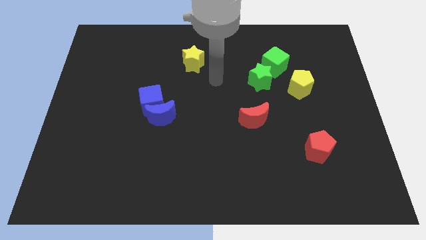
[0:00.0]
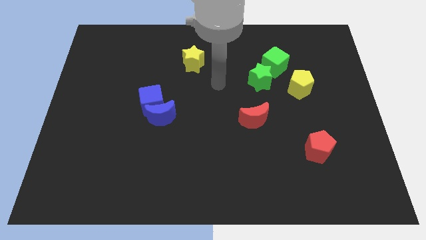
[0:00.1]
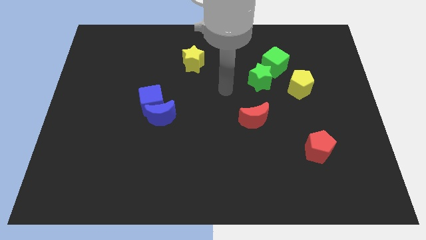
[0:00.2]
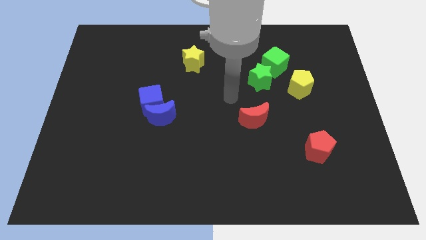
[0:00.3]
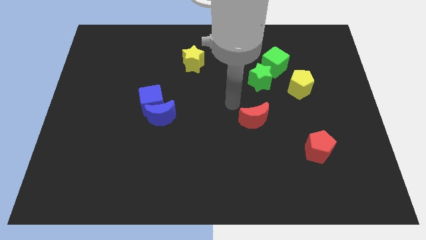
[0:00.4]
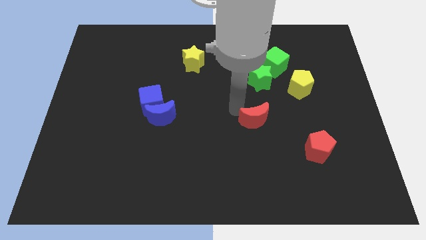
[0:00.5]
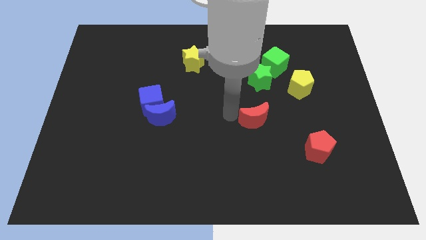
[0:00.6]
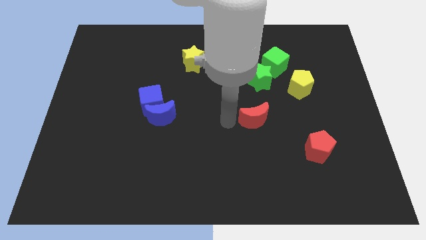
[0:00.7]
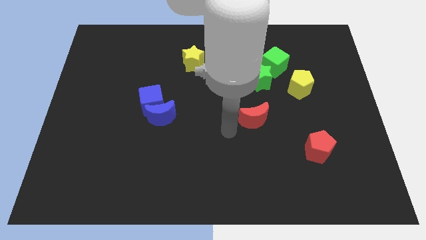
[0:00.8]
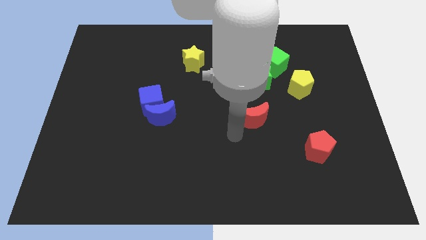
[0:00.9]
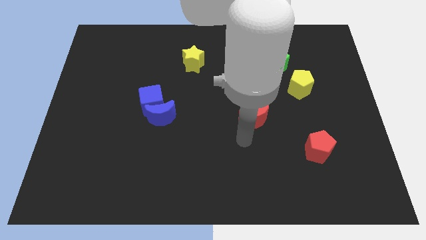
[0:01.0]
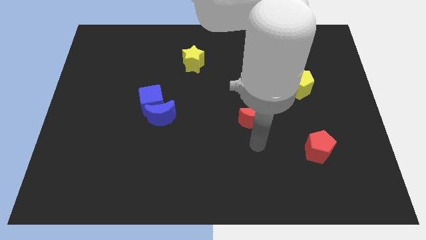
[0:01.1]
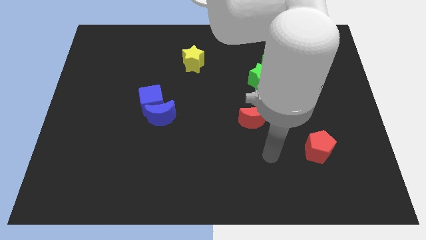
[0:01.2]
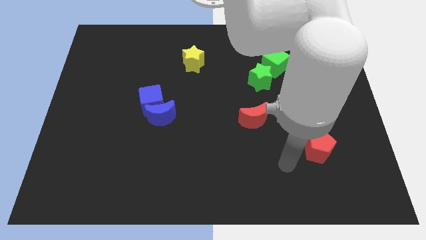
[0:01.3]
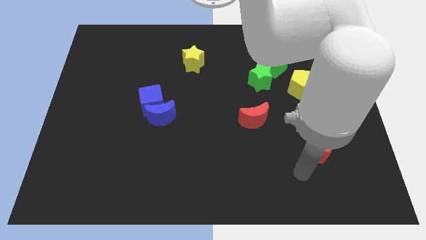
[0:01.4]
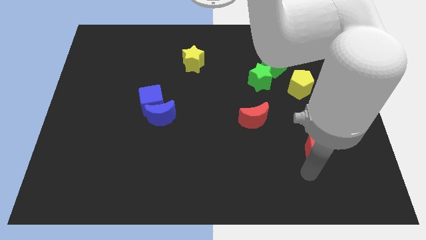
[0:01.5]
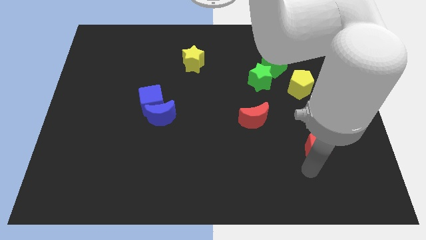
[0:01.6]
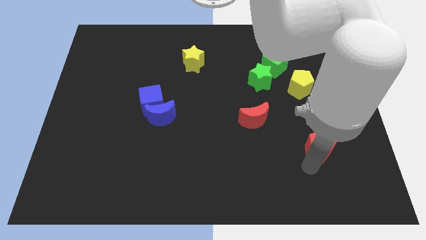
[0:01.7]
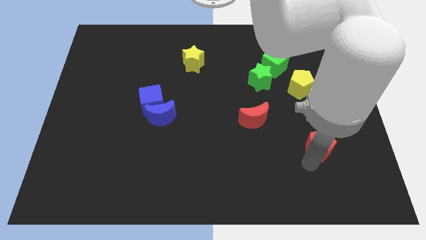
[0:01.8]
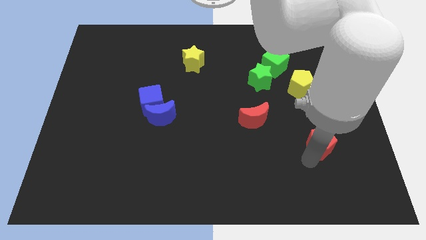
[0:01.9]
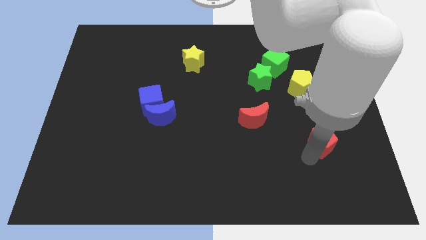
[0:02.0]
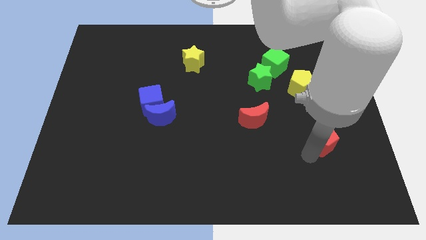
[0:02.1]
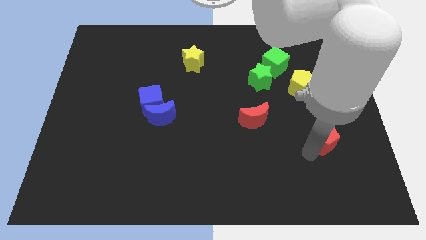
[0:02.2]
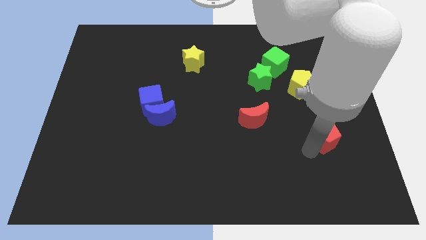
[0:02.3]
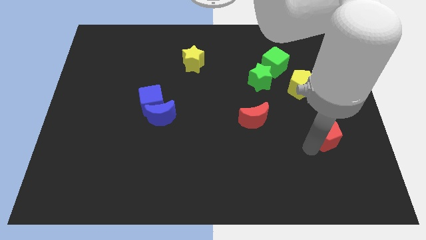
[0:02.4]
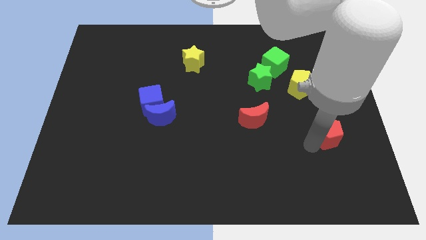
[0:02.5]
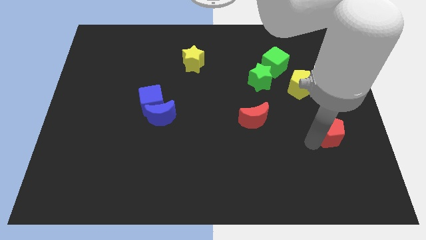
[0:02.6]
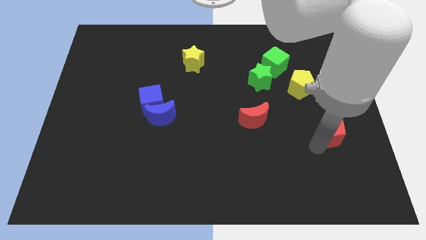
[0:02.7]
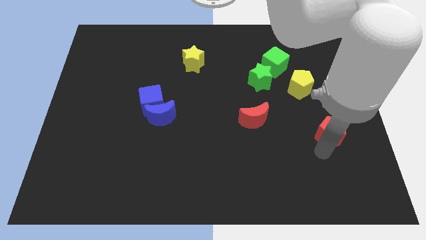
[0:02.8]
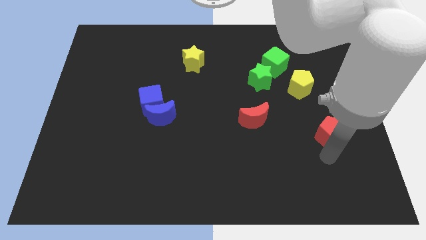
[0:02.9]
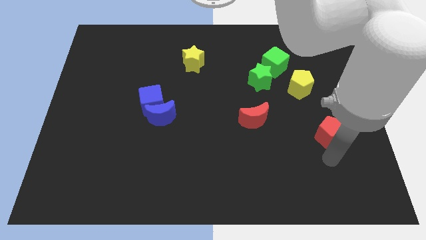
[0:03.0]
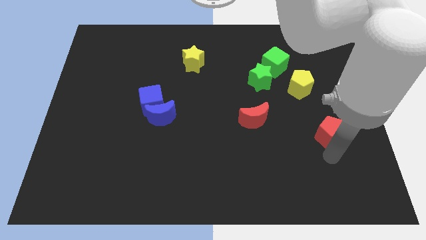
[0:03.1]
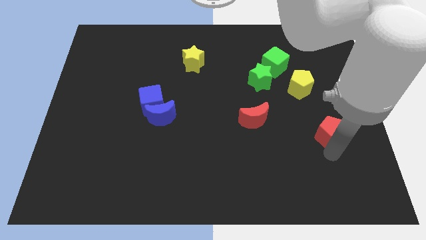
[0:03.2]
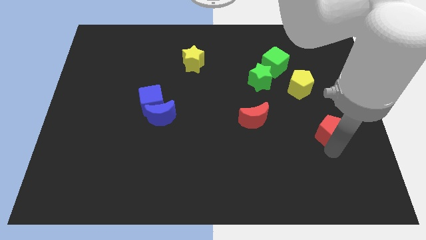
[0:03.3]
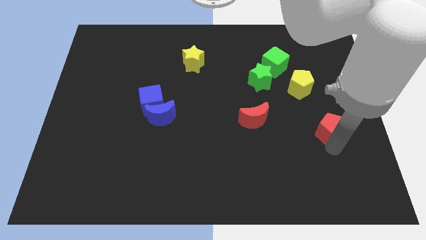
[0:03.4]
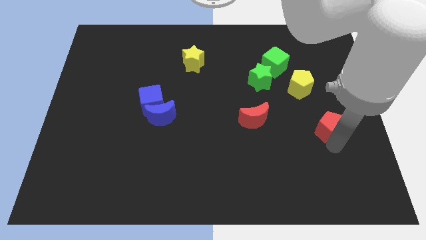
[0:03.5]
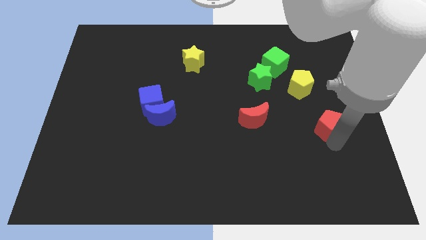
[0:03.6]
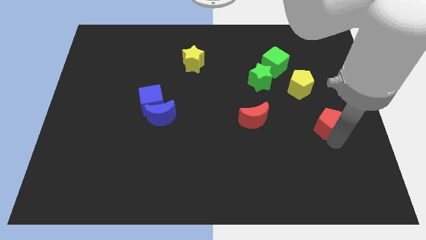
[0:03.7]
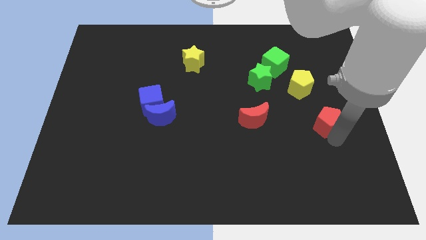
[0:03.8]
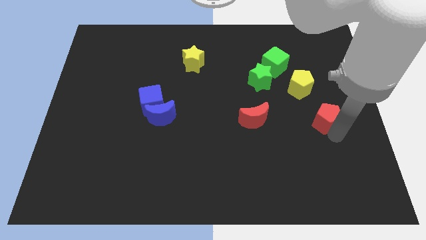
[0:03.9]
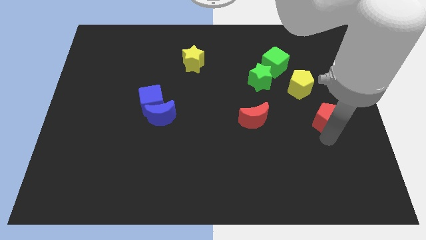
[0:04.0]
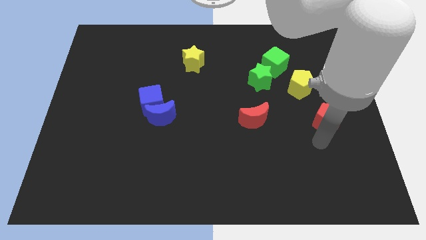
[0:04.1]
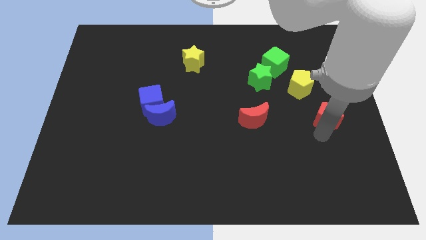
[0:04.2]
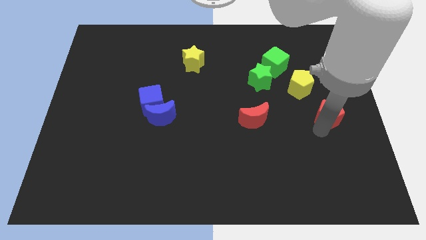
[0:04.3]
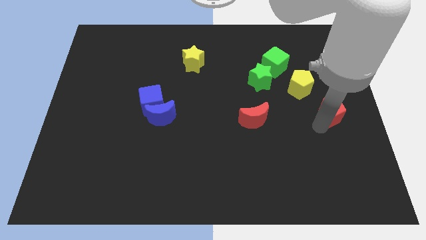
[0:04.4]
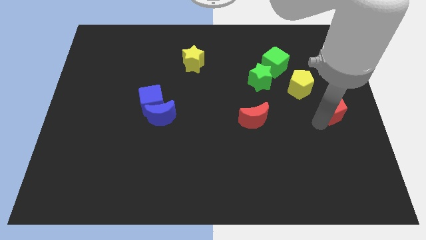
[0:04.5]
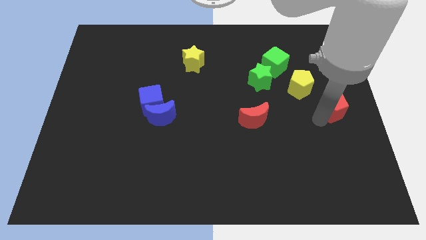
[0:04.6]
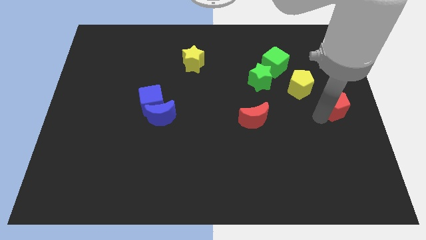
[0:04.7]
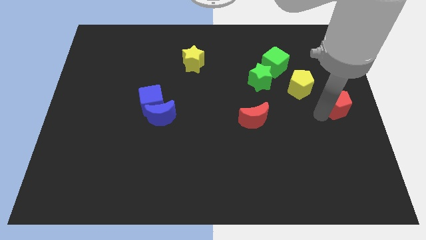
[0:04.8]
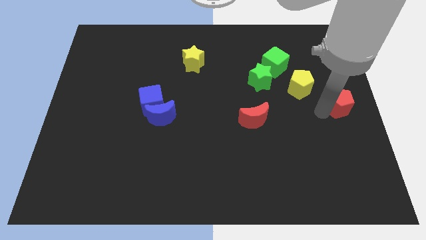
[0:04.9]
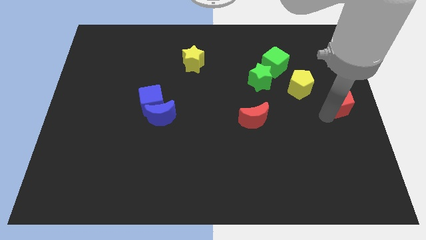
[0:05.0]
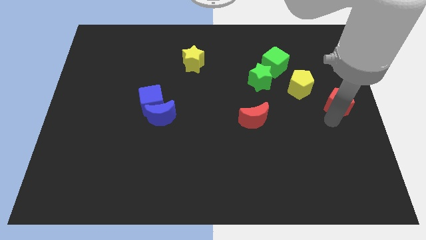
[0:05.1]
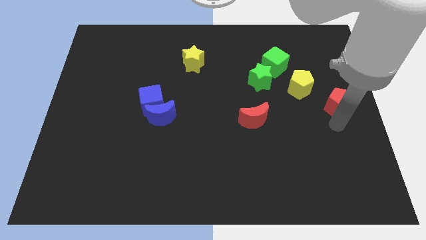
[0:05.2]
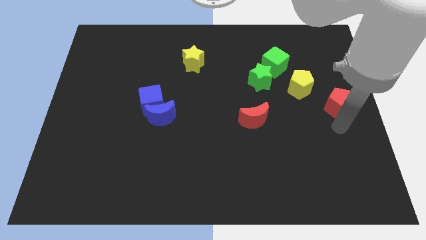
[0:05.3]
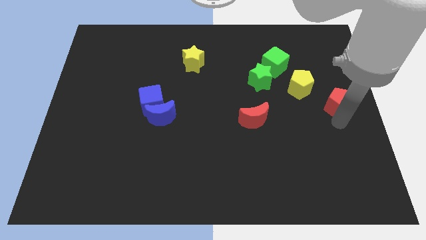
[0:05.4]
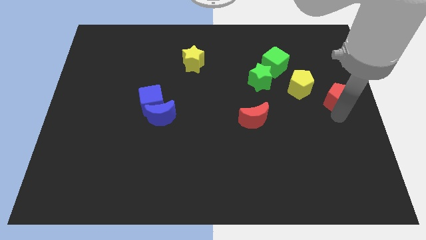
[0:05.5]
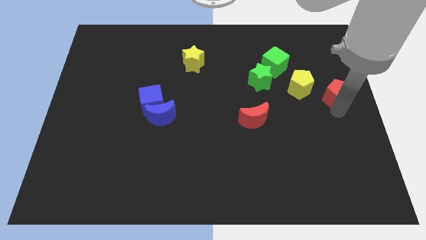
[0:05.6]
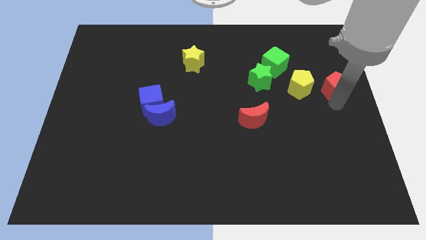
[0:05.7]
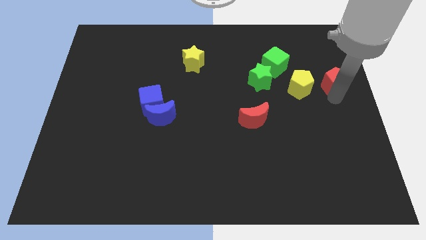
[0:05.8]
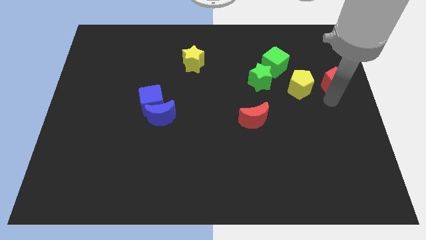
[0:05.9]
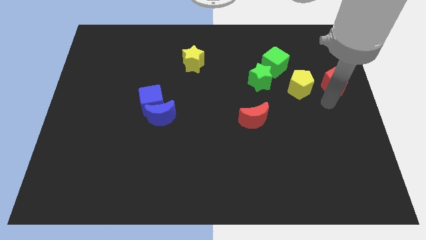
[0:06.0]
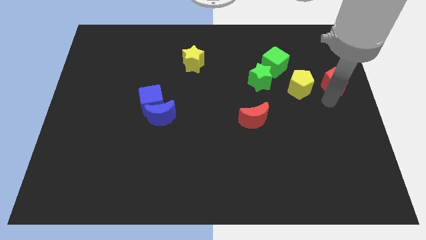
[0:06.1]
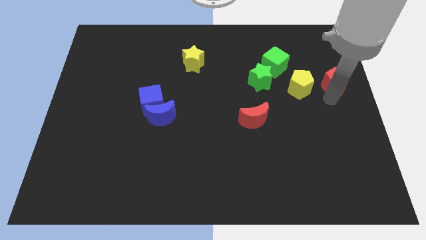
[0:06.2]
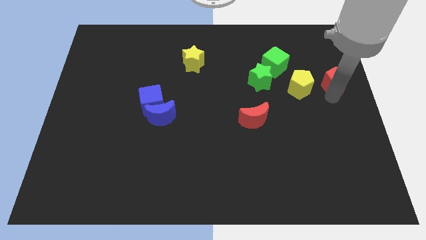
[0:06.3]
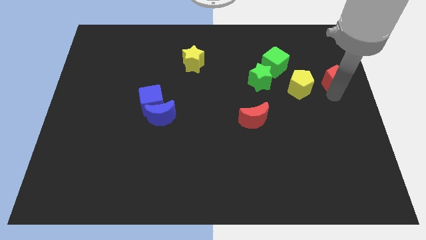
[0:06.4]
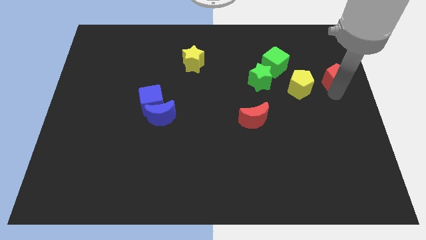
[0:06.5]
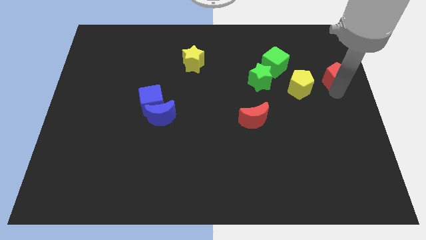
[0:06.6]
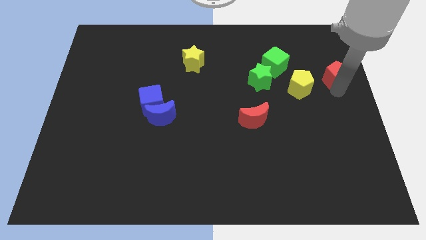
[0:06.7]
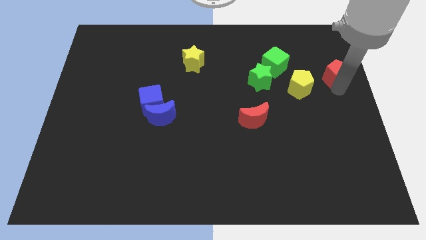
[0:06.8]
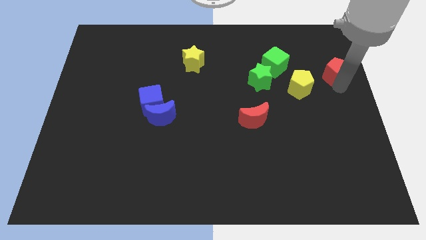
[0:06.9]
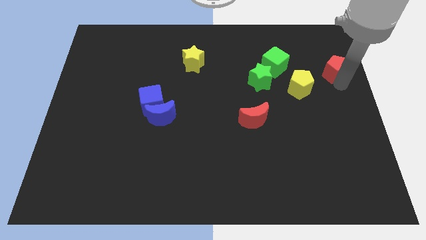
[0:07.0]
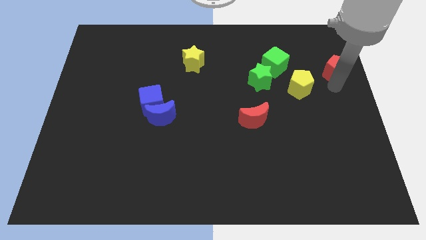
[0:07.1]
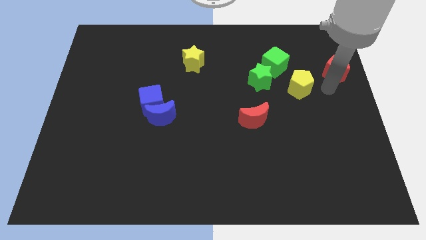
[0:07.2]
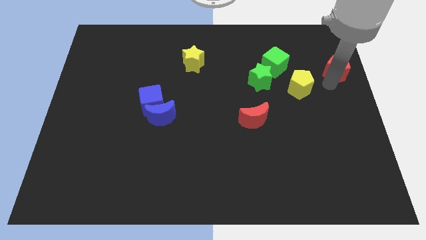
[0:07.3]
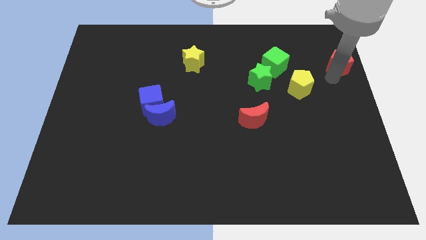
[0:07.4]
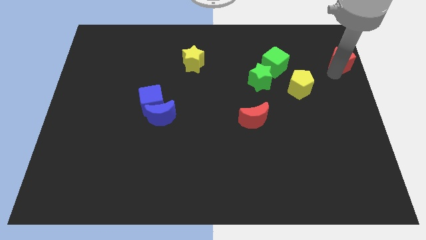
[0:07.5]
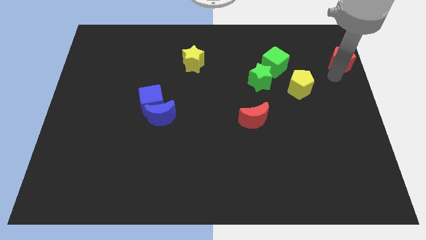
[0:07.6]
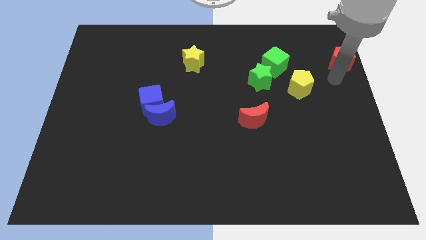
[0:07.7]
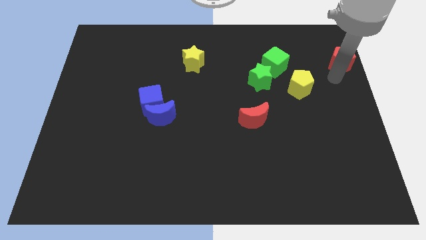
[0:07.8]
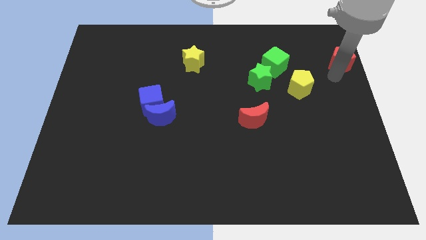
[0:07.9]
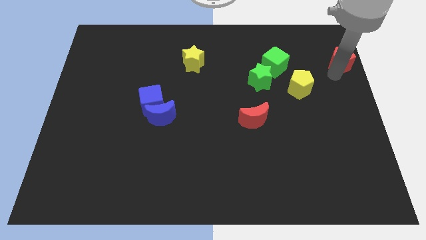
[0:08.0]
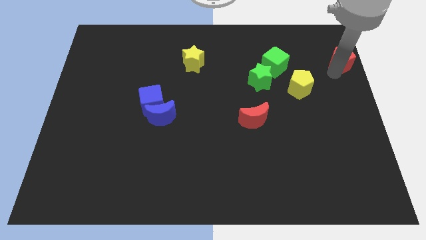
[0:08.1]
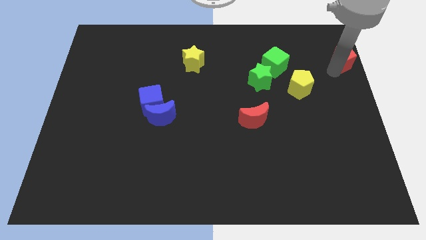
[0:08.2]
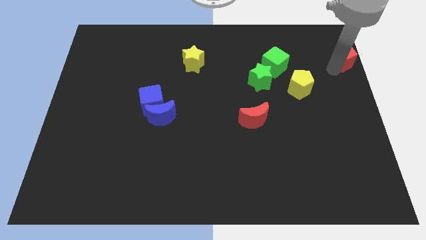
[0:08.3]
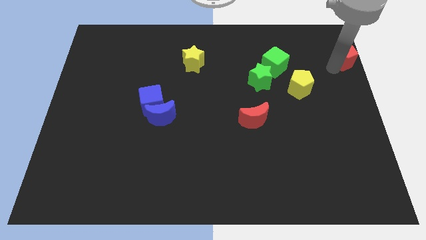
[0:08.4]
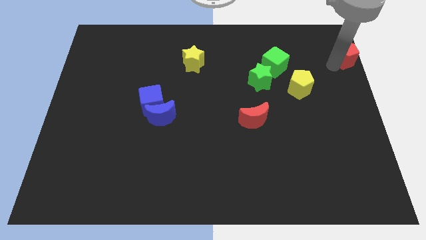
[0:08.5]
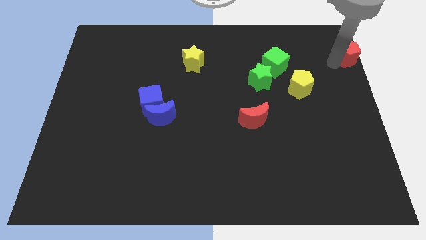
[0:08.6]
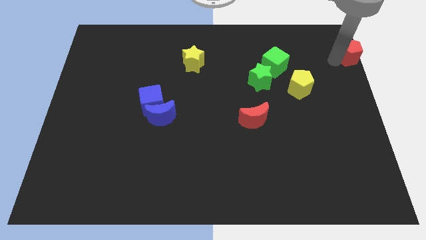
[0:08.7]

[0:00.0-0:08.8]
slide the red pentagon to the upper right corner
